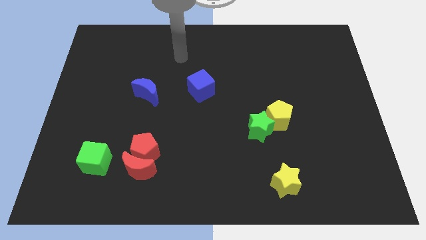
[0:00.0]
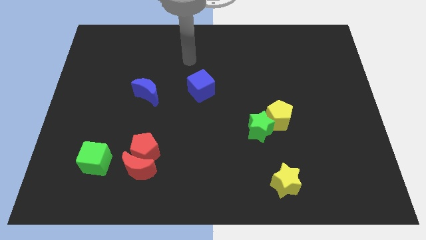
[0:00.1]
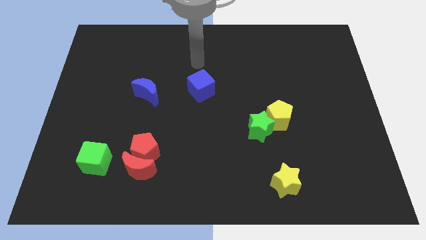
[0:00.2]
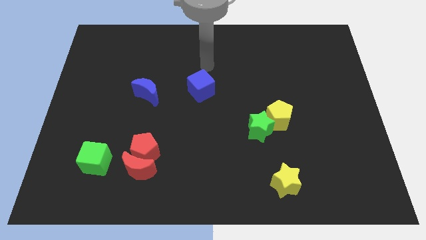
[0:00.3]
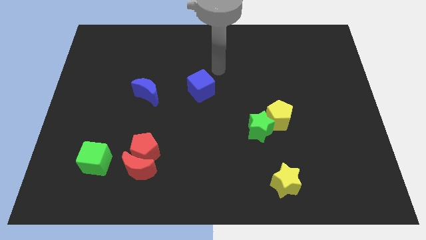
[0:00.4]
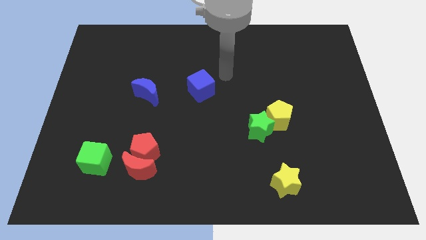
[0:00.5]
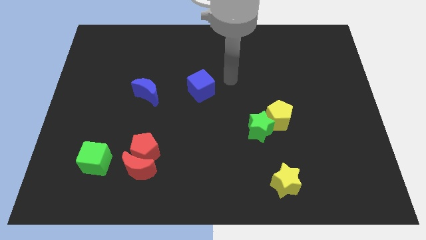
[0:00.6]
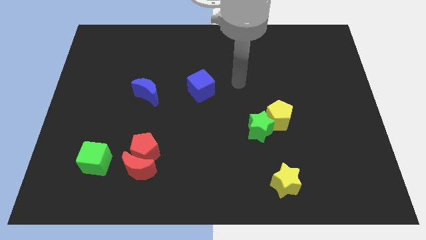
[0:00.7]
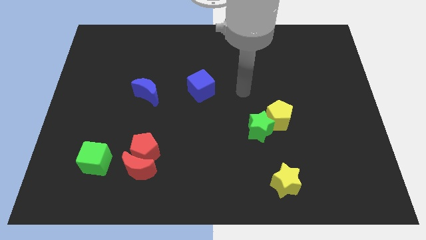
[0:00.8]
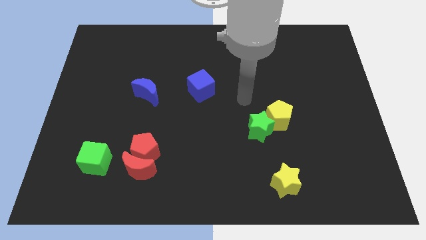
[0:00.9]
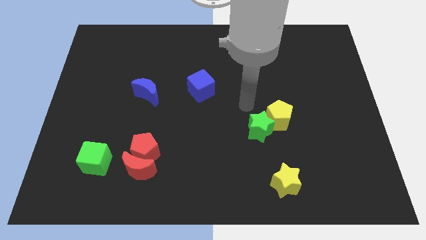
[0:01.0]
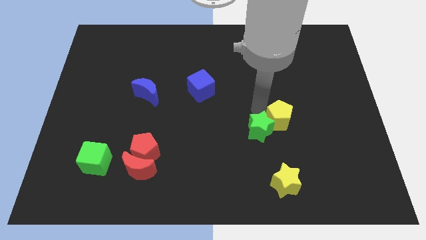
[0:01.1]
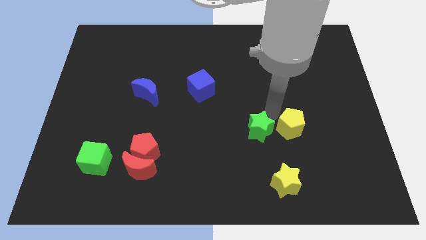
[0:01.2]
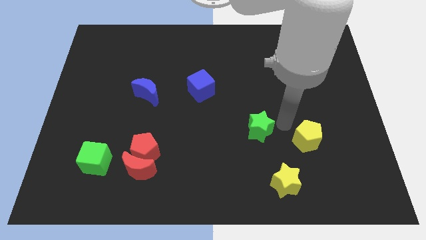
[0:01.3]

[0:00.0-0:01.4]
move the green star away from the yellow pentagon

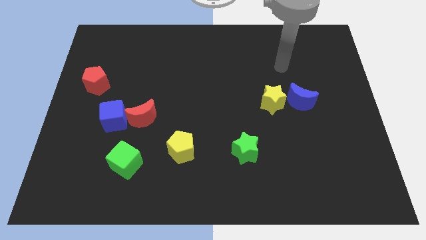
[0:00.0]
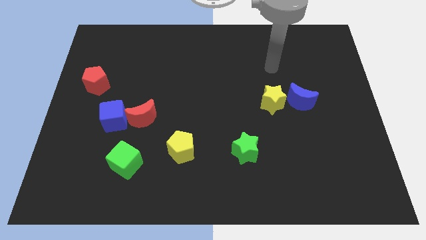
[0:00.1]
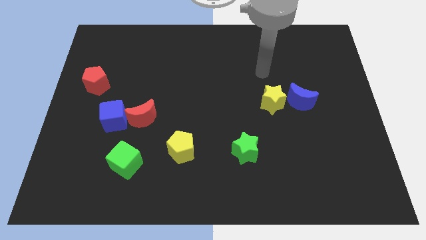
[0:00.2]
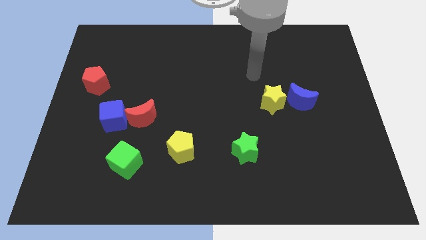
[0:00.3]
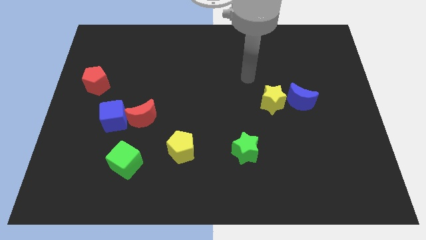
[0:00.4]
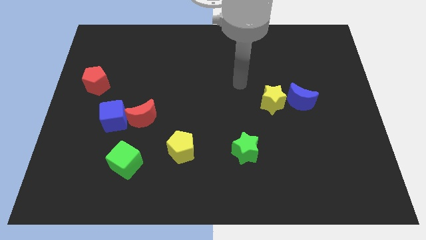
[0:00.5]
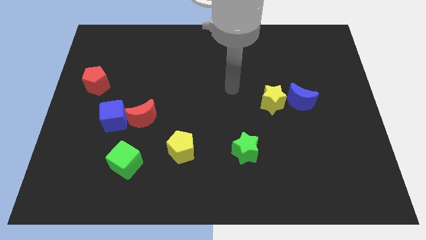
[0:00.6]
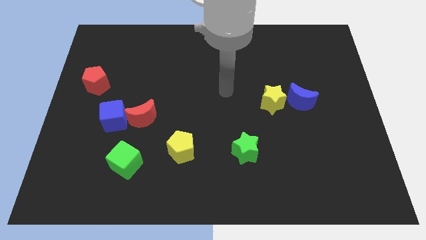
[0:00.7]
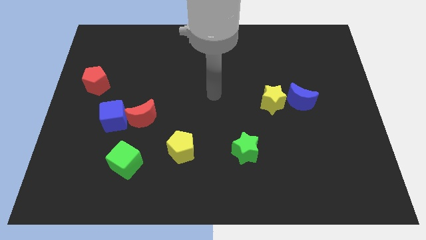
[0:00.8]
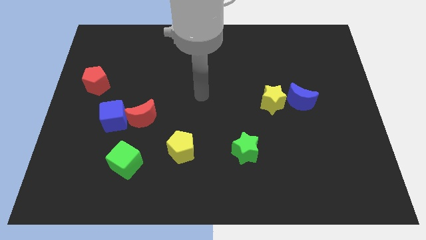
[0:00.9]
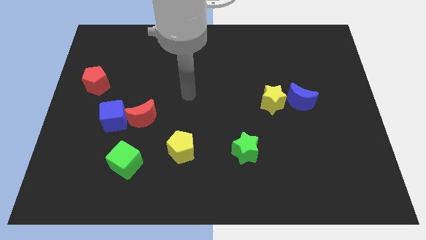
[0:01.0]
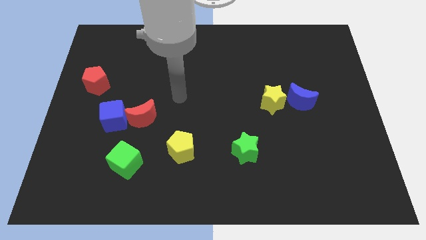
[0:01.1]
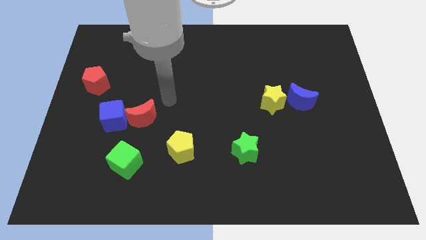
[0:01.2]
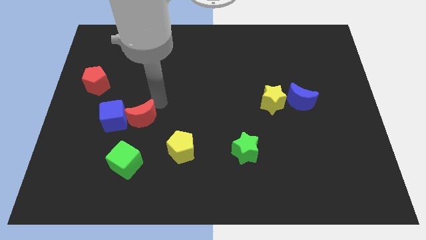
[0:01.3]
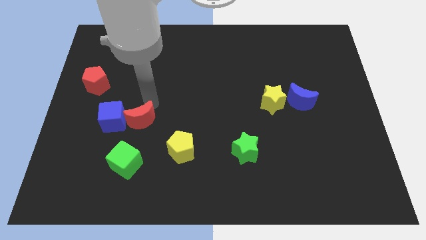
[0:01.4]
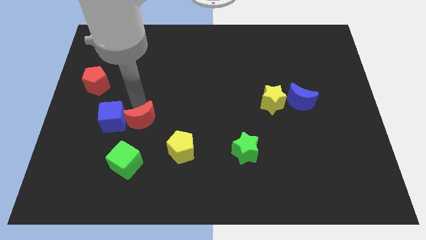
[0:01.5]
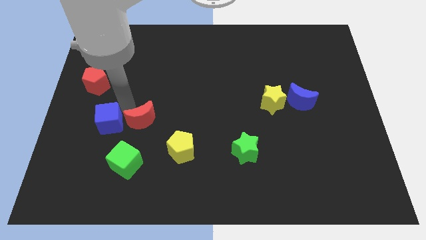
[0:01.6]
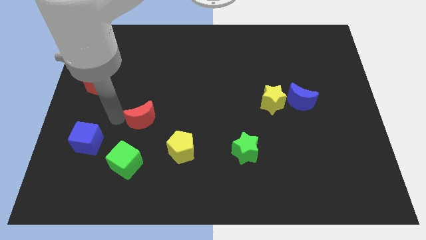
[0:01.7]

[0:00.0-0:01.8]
pull the red moon apart from the blue cube

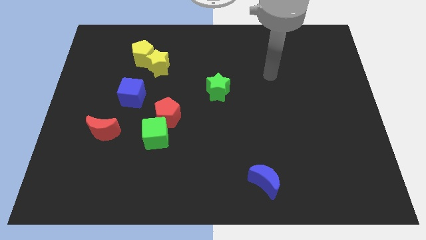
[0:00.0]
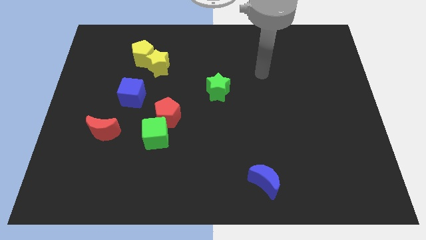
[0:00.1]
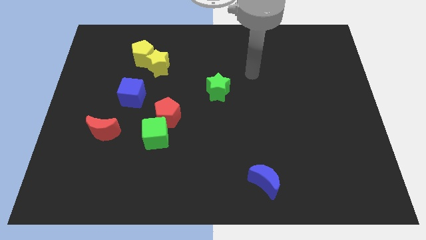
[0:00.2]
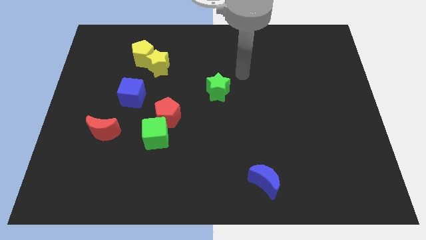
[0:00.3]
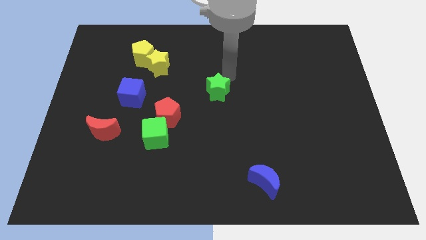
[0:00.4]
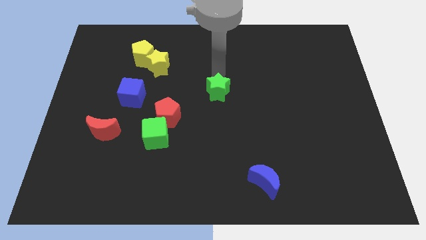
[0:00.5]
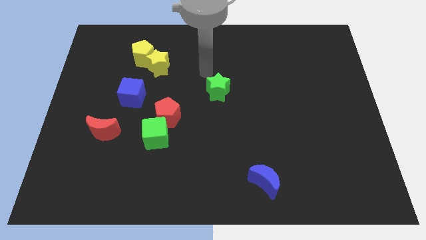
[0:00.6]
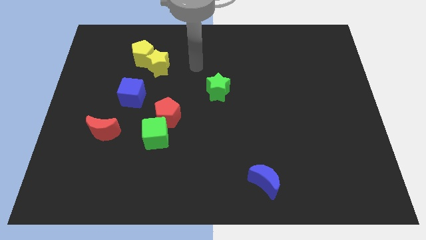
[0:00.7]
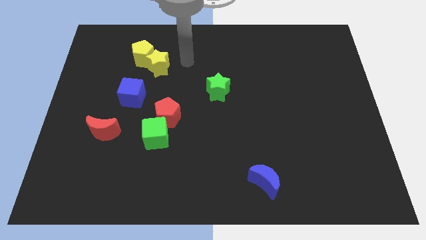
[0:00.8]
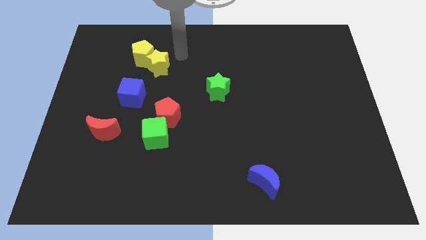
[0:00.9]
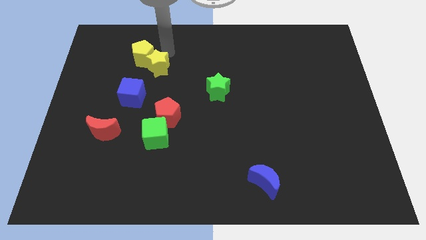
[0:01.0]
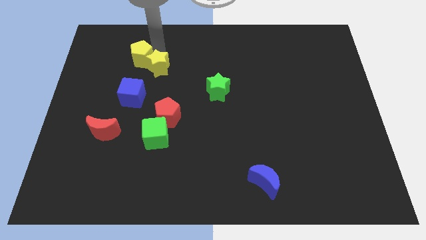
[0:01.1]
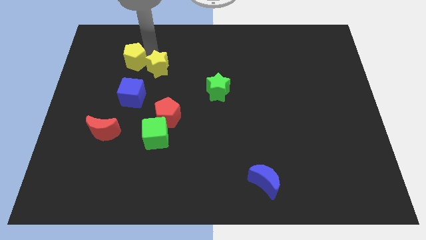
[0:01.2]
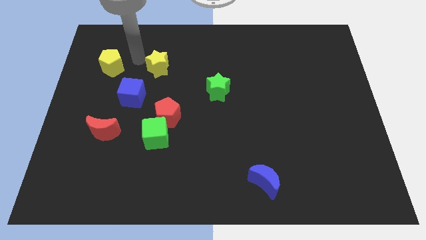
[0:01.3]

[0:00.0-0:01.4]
move the yellow star away from the yellow pentagon

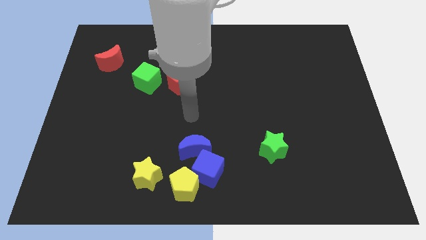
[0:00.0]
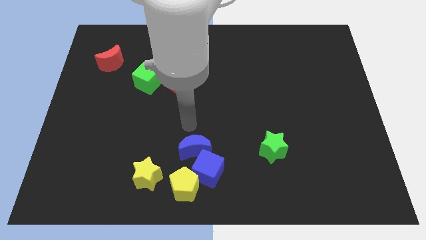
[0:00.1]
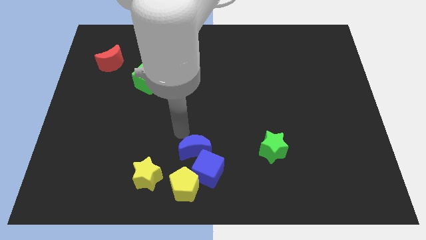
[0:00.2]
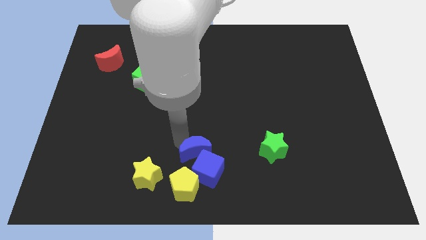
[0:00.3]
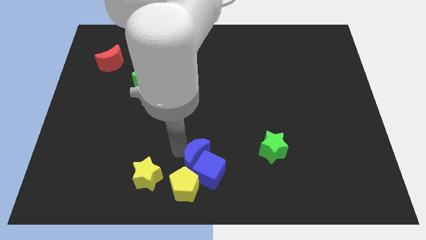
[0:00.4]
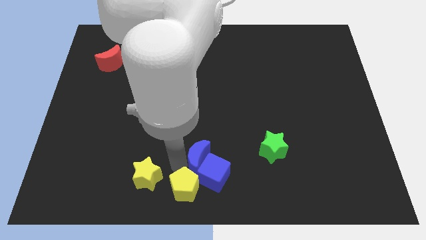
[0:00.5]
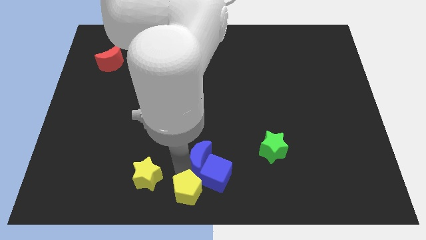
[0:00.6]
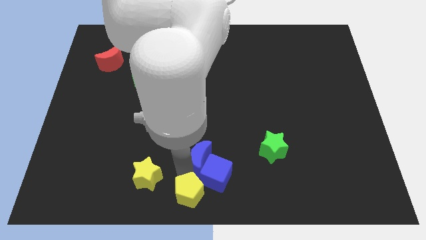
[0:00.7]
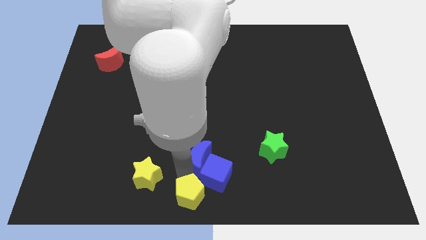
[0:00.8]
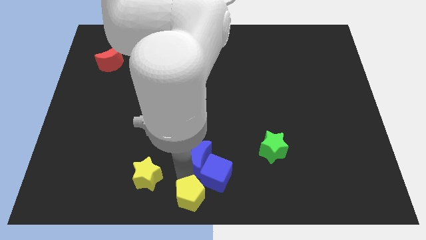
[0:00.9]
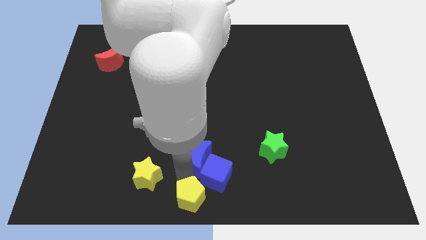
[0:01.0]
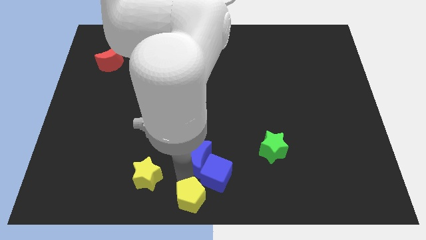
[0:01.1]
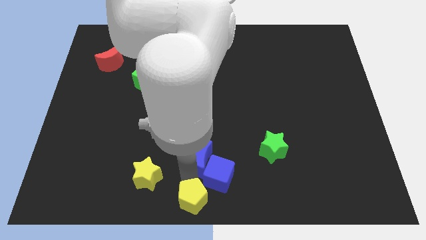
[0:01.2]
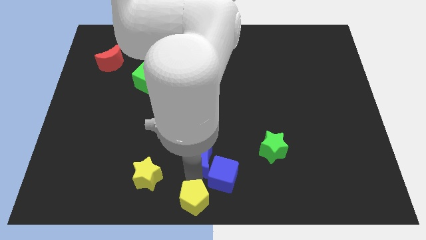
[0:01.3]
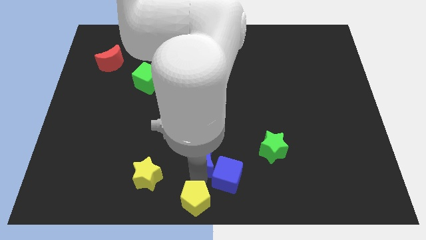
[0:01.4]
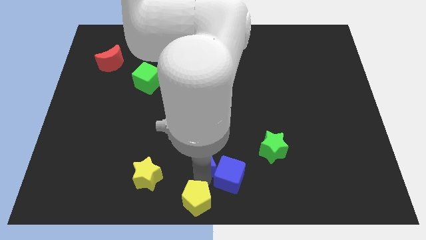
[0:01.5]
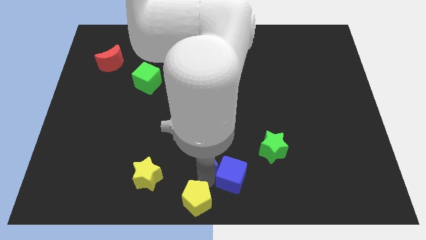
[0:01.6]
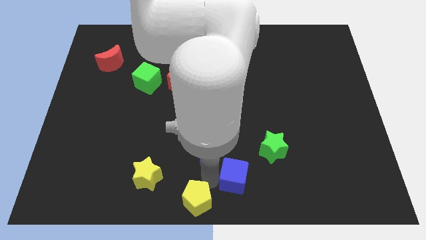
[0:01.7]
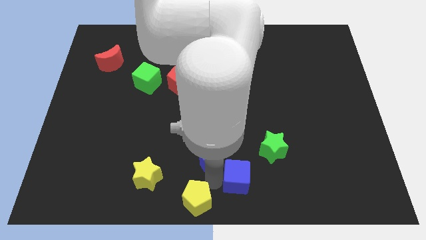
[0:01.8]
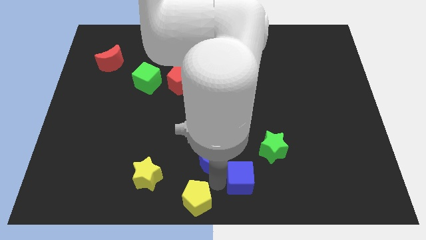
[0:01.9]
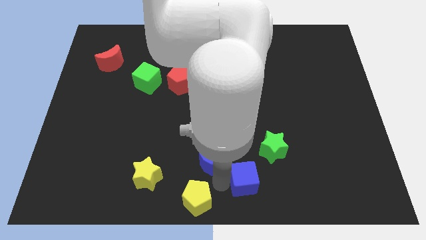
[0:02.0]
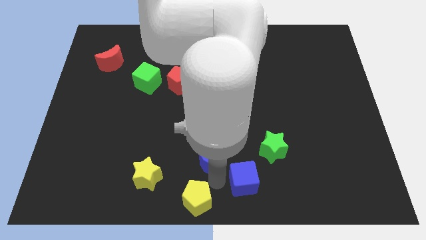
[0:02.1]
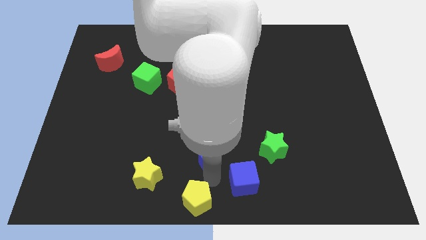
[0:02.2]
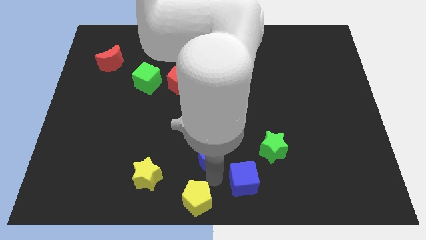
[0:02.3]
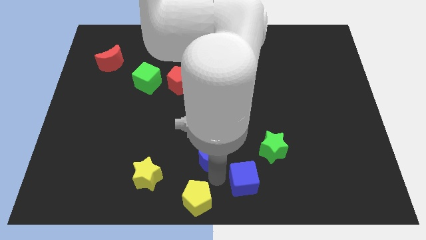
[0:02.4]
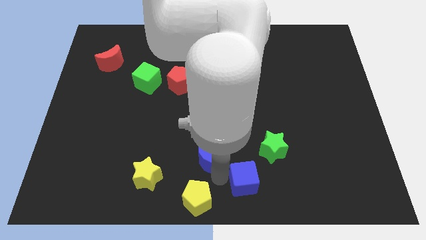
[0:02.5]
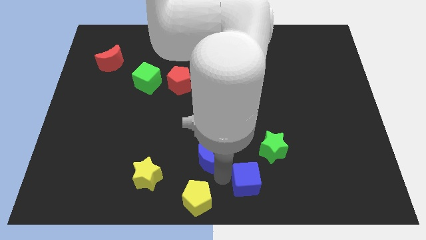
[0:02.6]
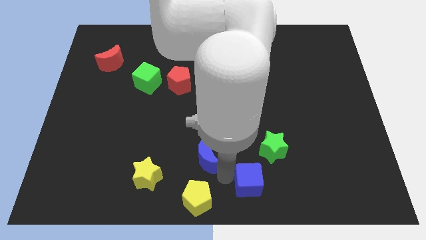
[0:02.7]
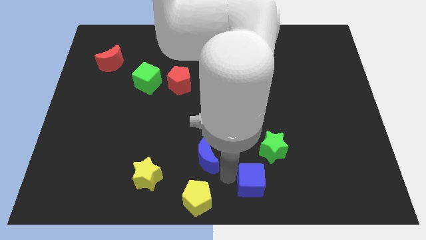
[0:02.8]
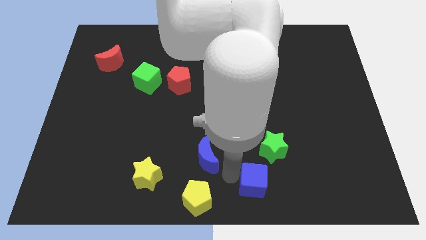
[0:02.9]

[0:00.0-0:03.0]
move the blue cube away from the yellow pentagon and blue moon

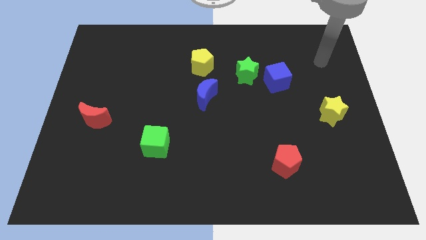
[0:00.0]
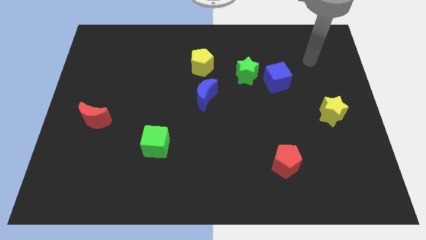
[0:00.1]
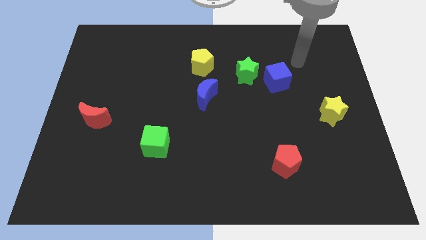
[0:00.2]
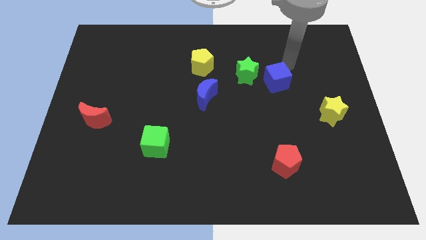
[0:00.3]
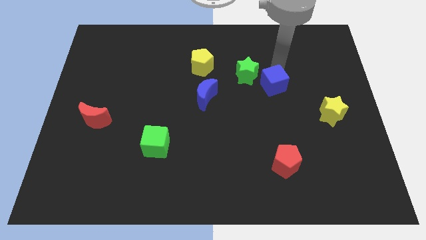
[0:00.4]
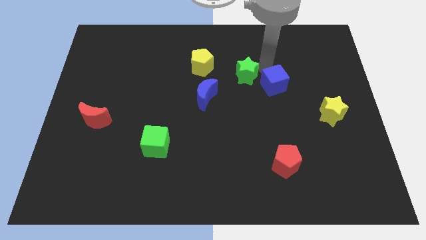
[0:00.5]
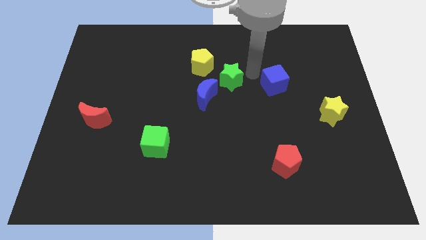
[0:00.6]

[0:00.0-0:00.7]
pull the blue cube apart from the green star

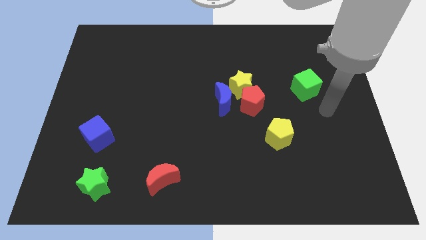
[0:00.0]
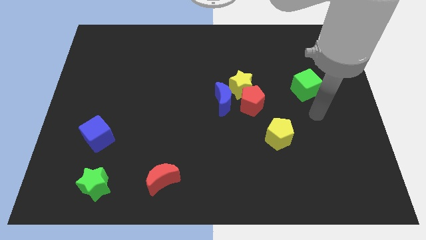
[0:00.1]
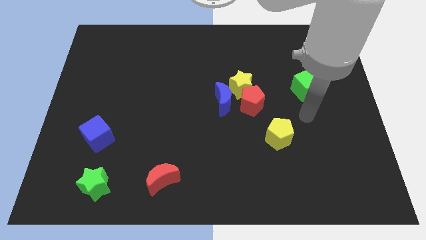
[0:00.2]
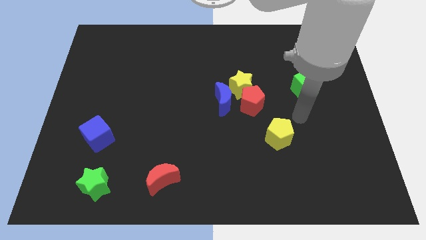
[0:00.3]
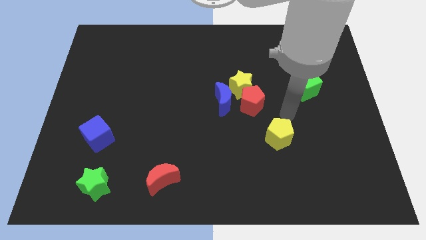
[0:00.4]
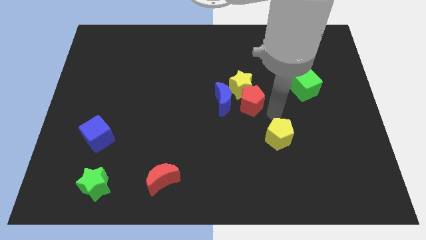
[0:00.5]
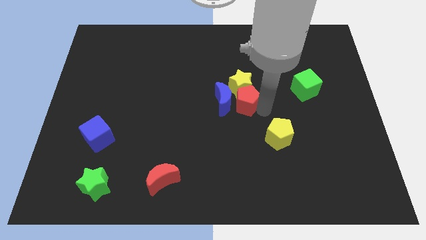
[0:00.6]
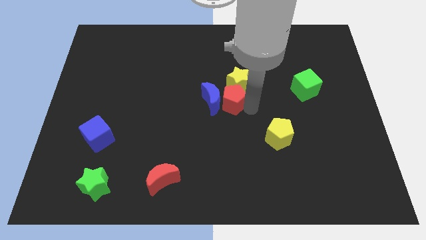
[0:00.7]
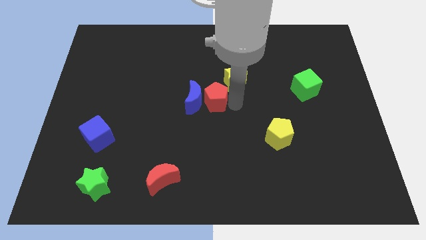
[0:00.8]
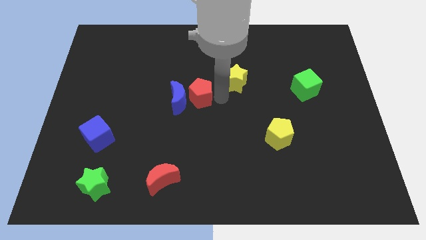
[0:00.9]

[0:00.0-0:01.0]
move the yellow star away from the red pentagon and blue moon
